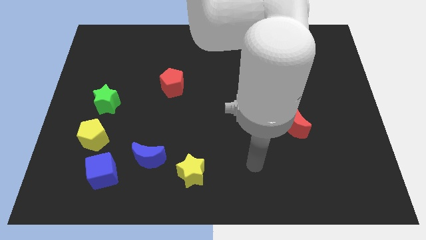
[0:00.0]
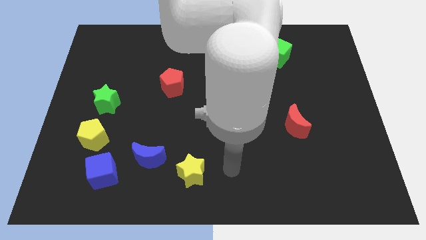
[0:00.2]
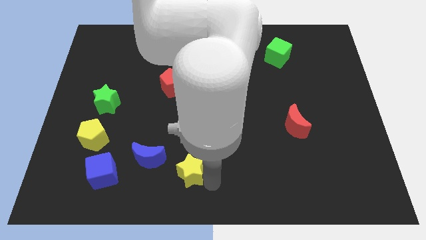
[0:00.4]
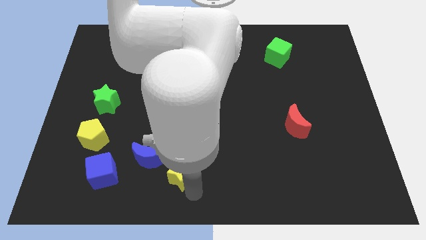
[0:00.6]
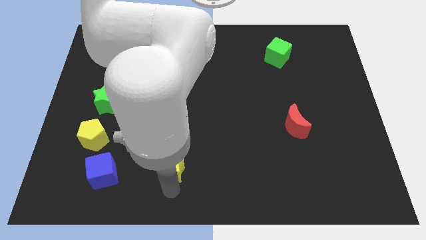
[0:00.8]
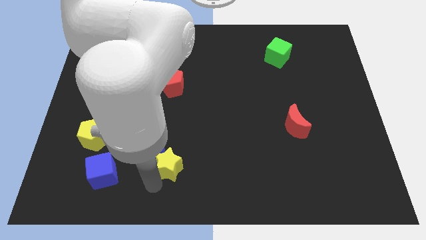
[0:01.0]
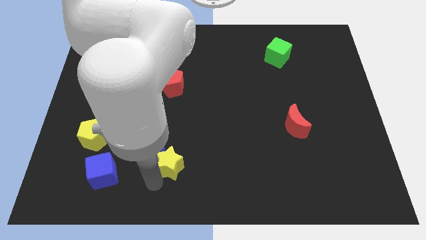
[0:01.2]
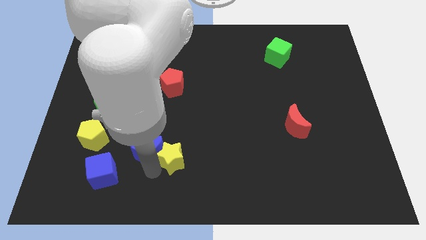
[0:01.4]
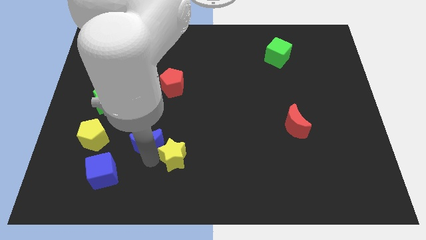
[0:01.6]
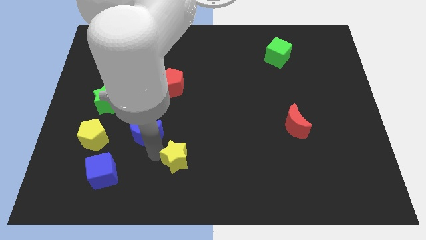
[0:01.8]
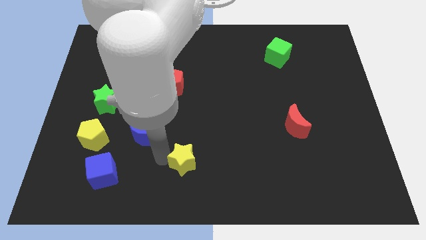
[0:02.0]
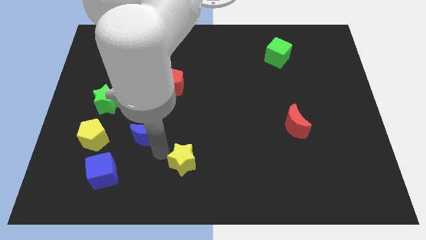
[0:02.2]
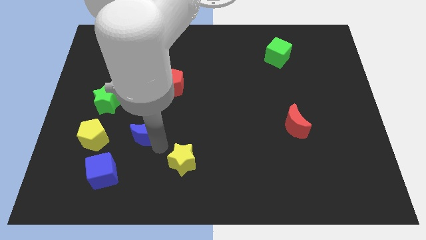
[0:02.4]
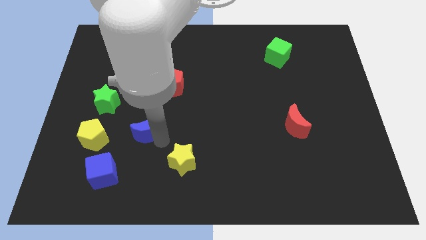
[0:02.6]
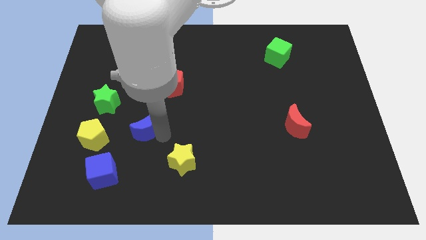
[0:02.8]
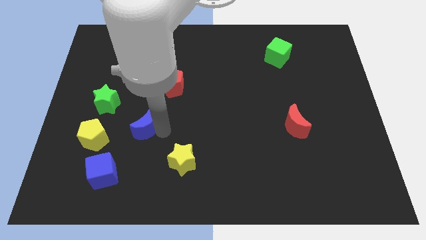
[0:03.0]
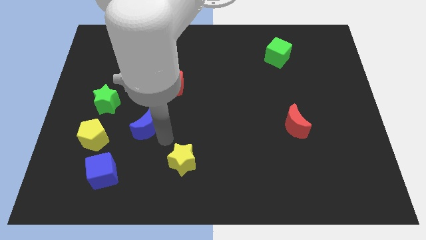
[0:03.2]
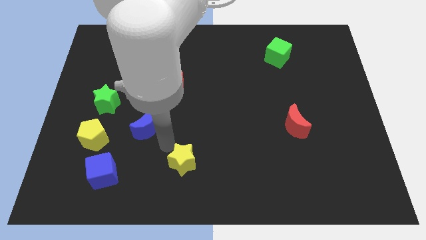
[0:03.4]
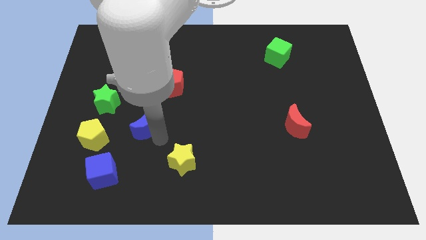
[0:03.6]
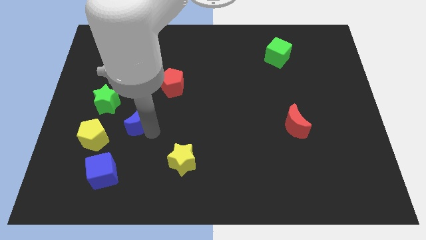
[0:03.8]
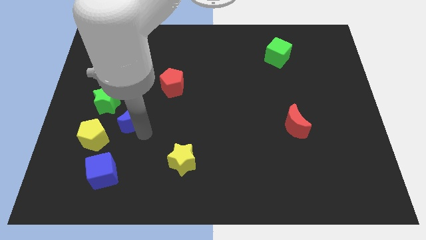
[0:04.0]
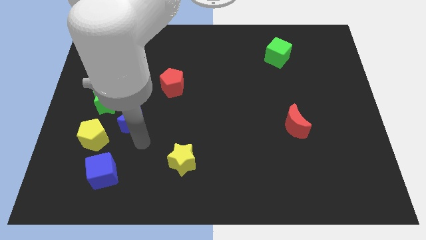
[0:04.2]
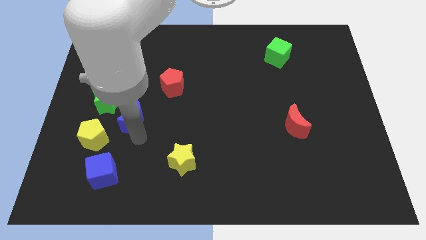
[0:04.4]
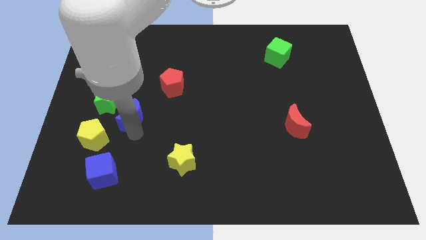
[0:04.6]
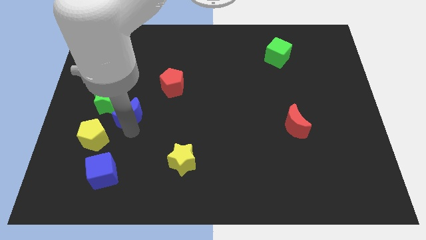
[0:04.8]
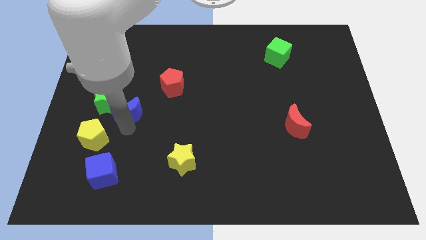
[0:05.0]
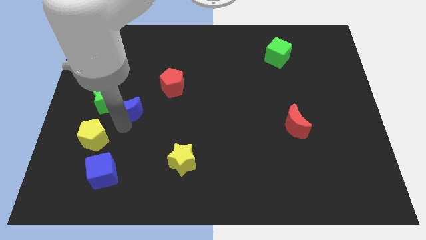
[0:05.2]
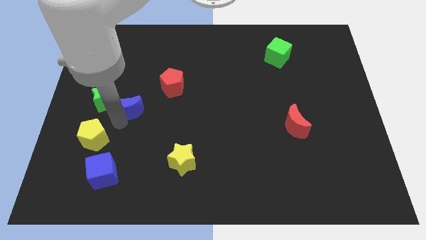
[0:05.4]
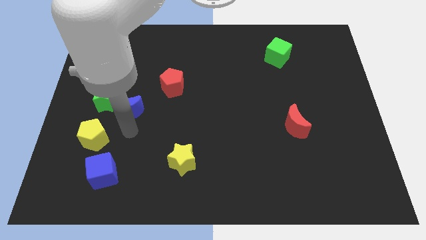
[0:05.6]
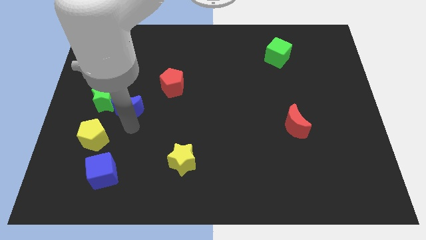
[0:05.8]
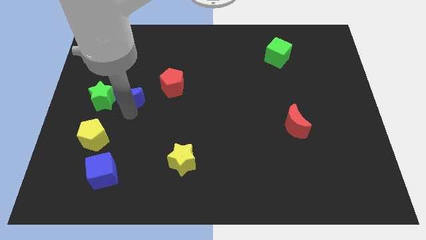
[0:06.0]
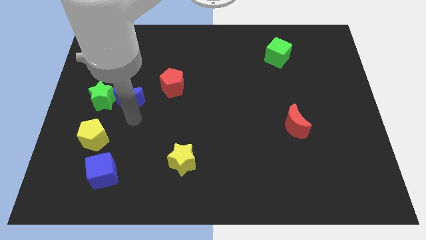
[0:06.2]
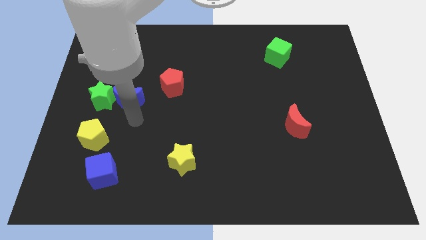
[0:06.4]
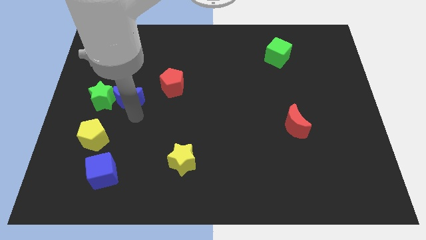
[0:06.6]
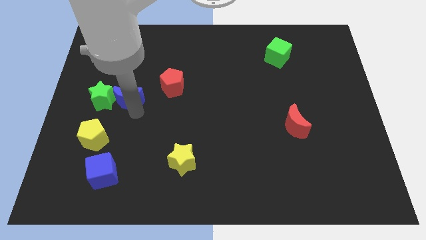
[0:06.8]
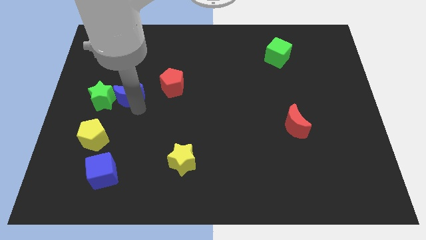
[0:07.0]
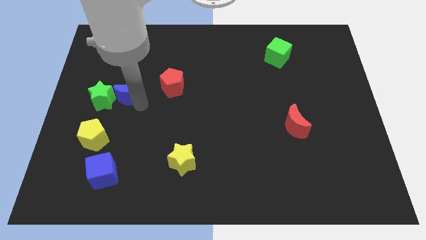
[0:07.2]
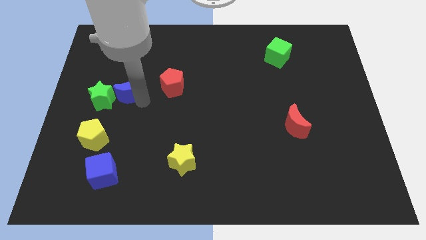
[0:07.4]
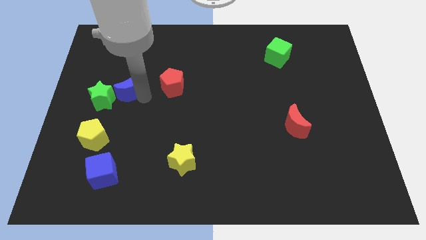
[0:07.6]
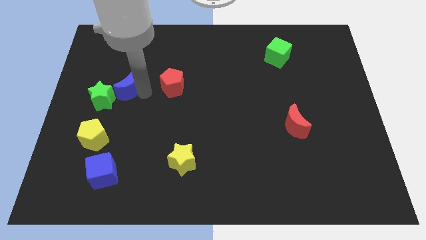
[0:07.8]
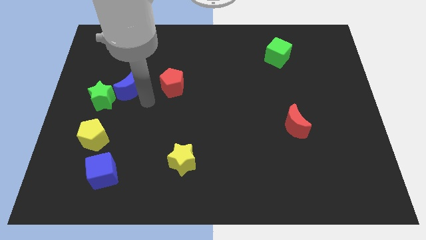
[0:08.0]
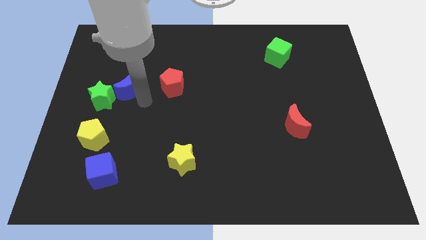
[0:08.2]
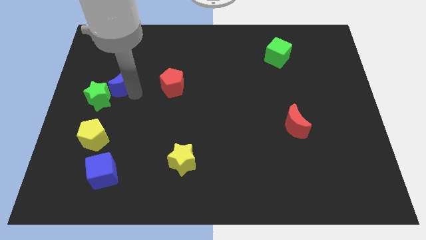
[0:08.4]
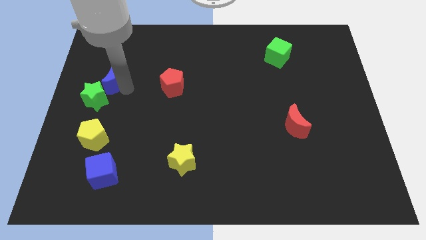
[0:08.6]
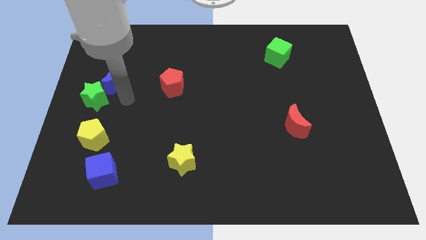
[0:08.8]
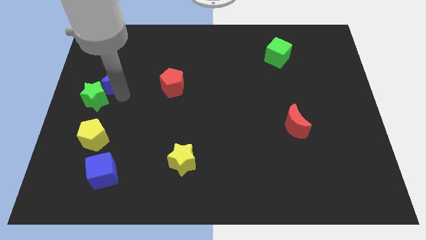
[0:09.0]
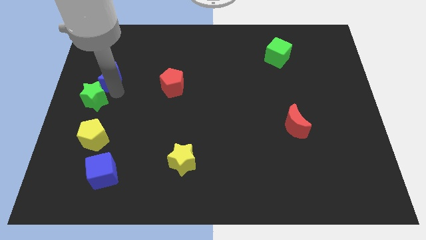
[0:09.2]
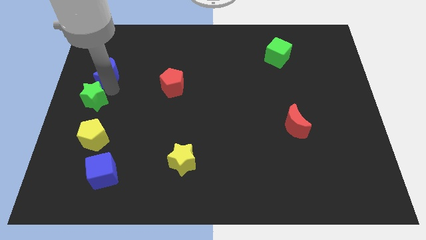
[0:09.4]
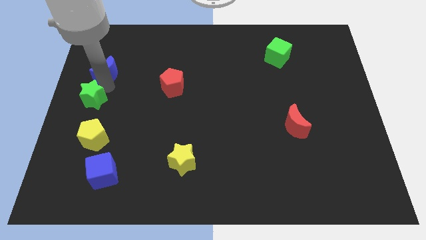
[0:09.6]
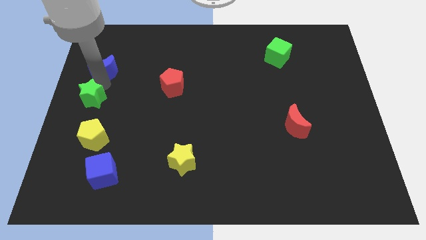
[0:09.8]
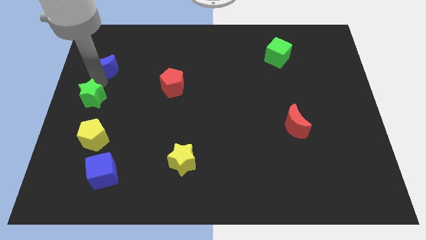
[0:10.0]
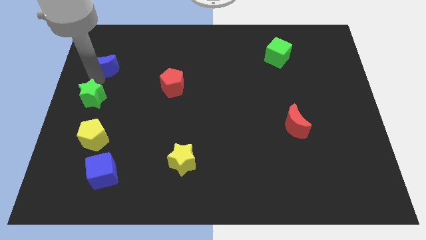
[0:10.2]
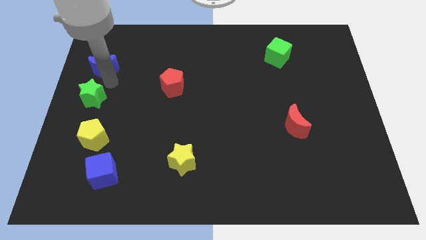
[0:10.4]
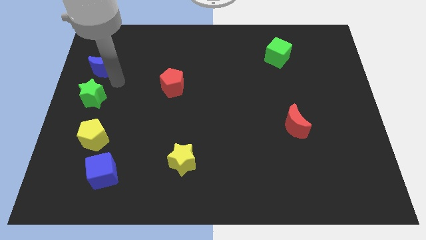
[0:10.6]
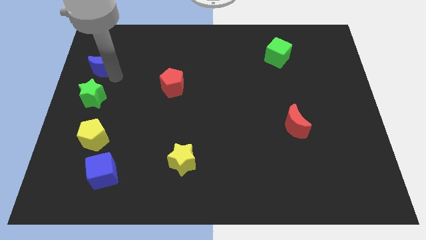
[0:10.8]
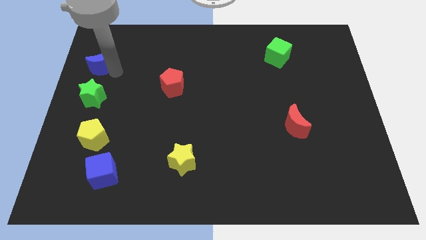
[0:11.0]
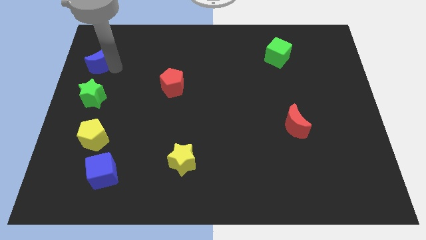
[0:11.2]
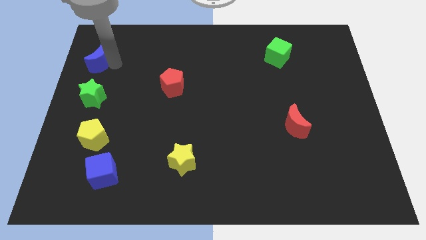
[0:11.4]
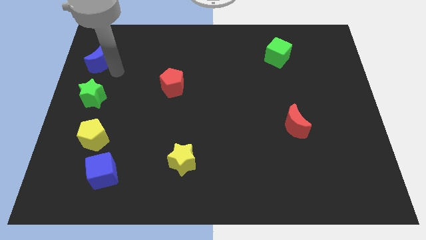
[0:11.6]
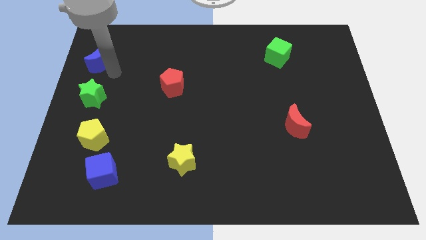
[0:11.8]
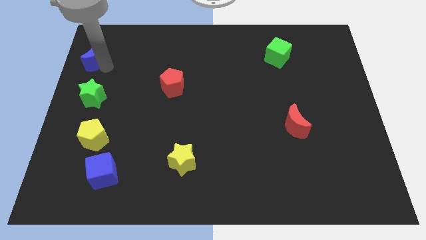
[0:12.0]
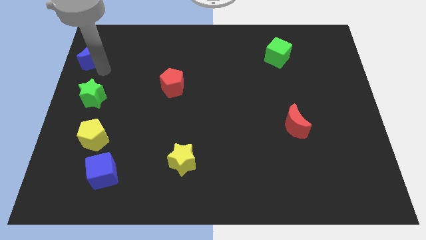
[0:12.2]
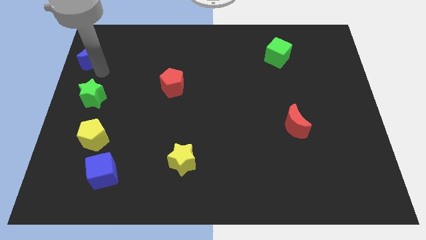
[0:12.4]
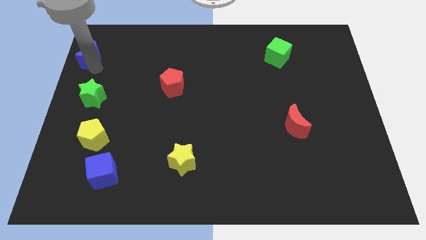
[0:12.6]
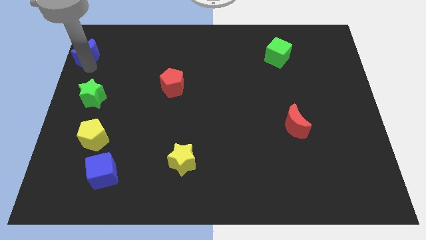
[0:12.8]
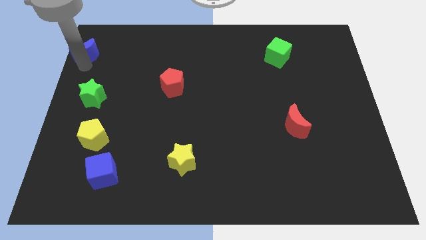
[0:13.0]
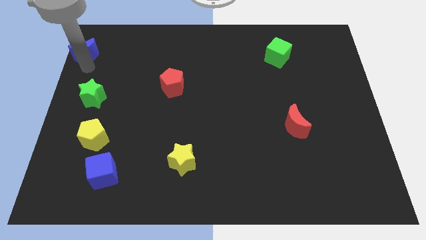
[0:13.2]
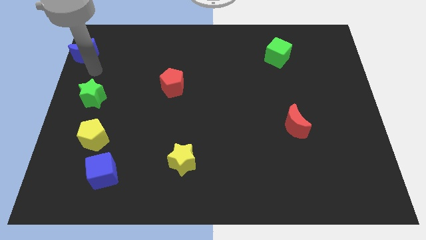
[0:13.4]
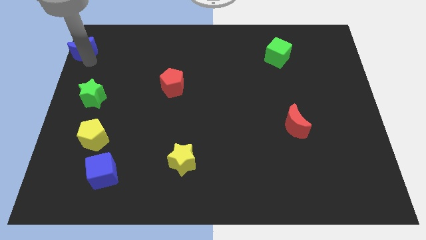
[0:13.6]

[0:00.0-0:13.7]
slide the blue moon to the top left corner

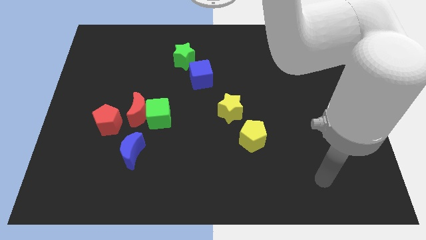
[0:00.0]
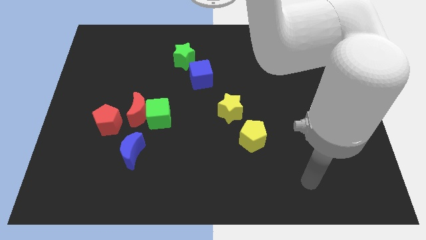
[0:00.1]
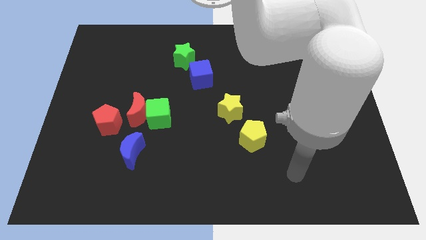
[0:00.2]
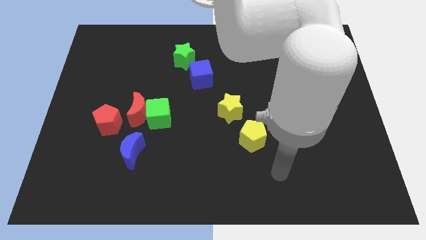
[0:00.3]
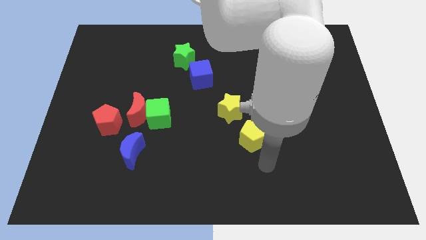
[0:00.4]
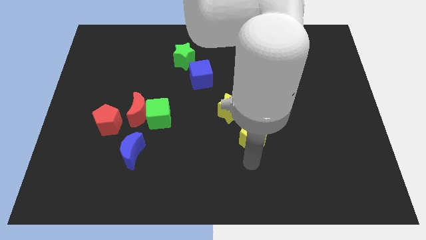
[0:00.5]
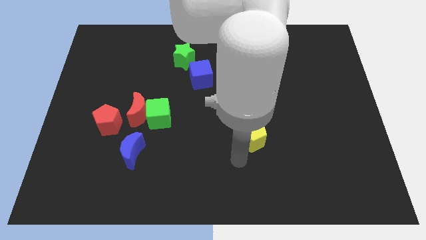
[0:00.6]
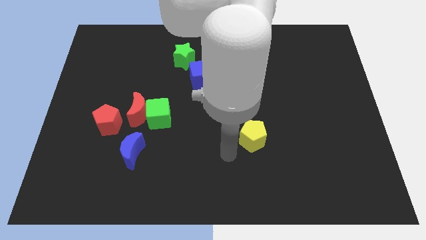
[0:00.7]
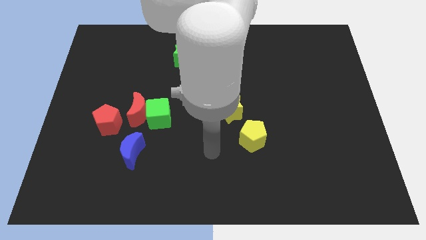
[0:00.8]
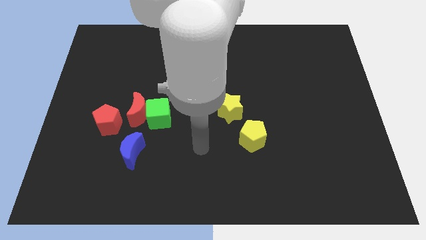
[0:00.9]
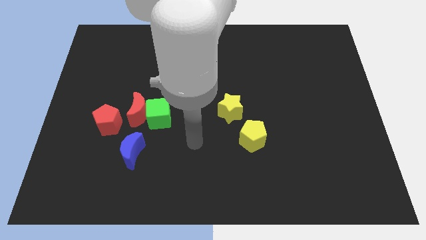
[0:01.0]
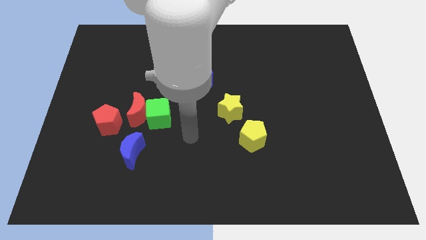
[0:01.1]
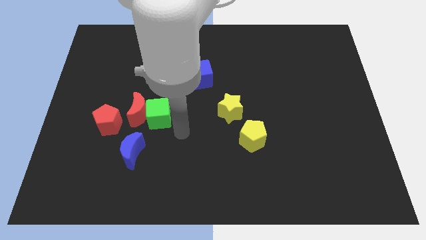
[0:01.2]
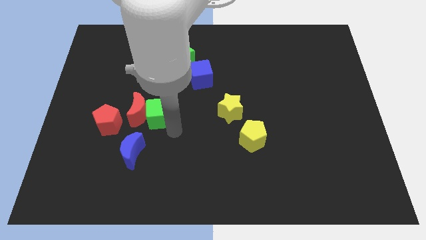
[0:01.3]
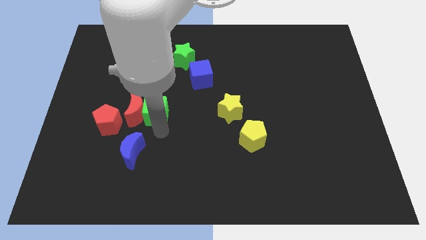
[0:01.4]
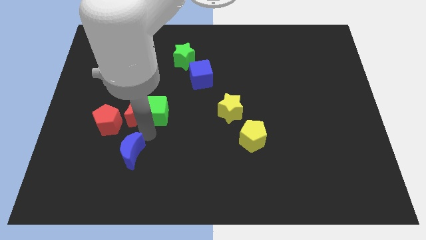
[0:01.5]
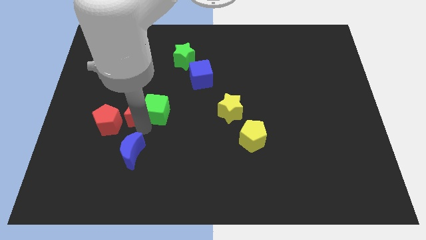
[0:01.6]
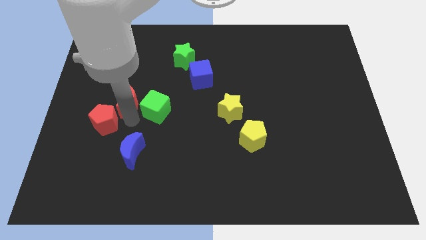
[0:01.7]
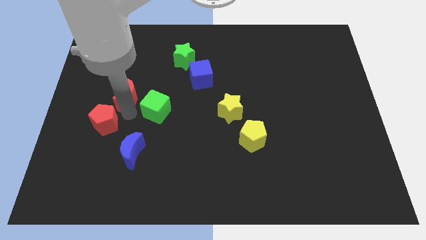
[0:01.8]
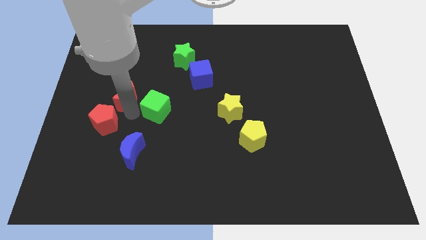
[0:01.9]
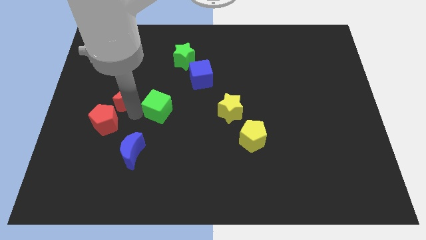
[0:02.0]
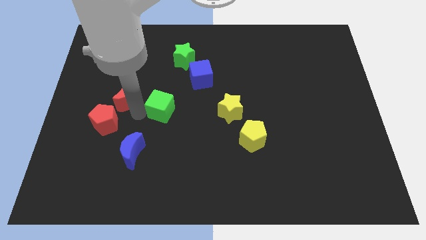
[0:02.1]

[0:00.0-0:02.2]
slide the green cube to the middle of the board
